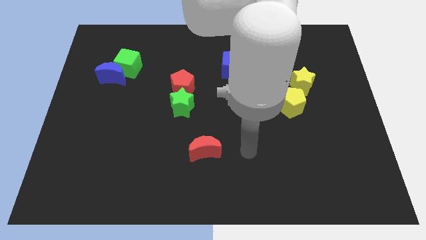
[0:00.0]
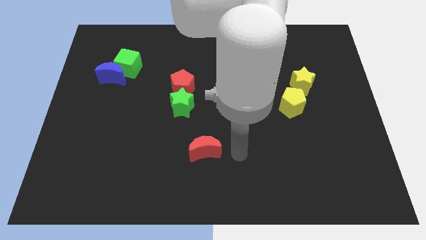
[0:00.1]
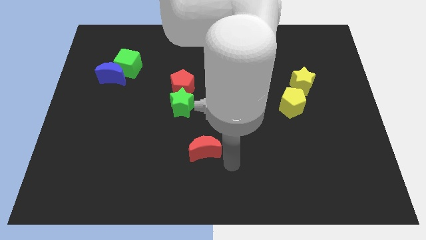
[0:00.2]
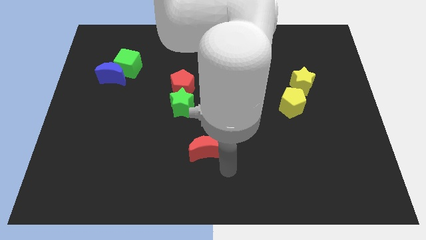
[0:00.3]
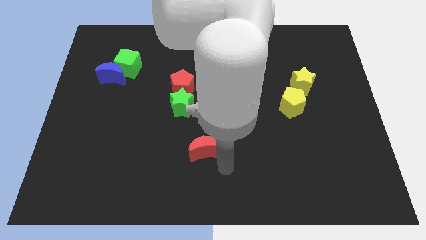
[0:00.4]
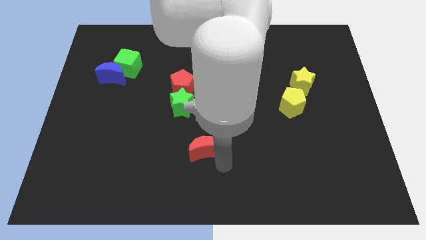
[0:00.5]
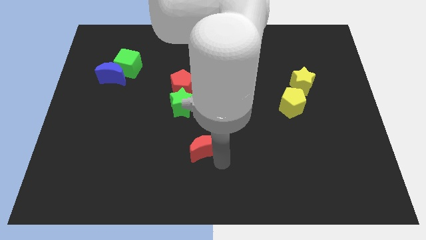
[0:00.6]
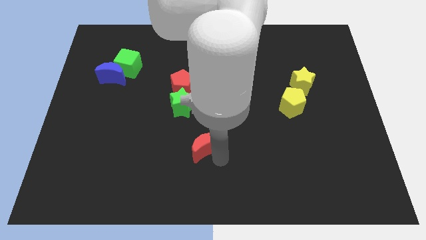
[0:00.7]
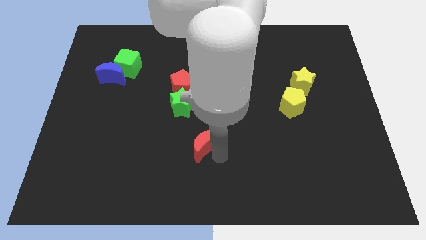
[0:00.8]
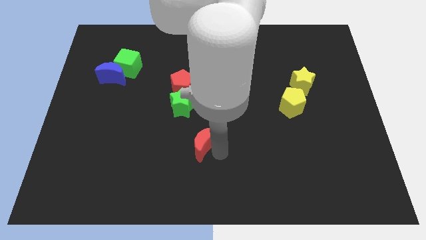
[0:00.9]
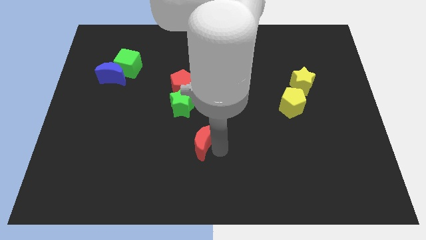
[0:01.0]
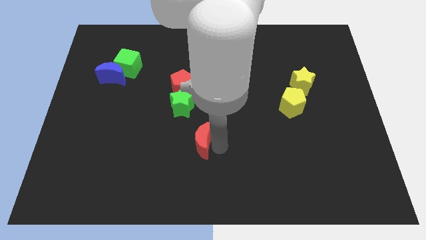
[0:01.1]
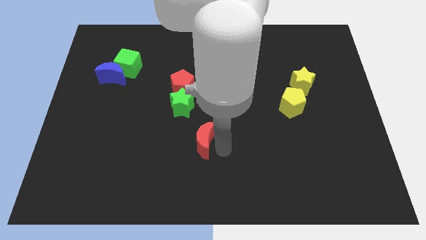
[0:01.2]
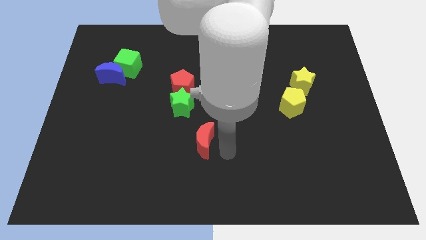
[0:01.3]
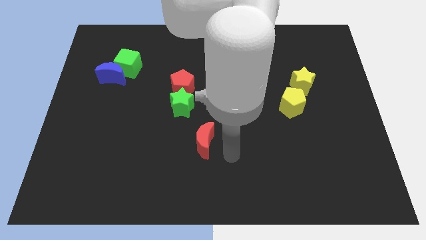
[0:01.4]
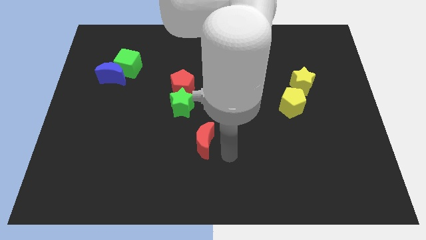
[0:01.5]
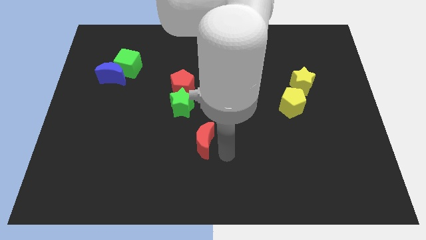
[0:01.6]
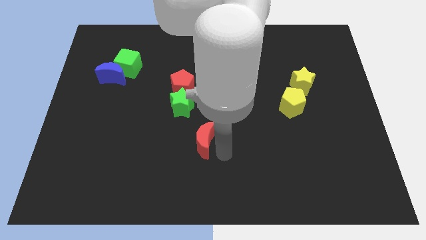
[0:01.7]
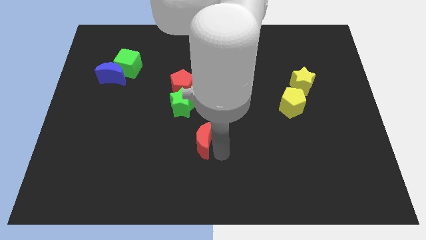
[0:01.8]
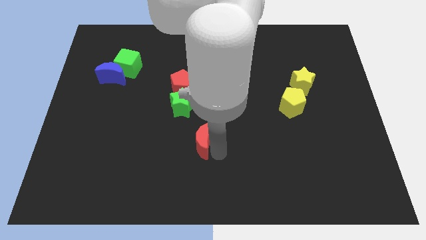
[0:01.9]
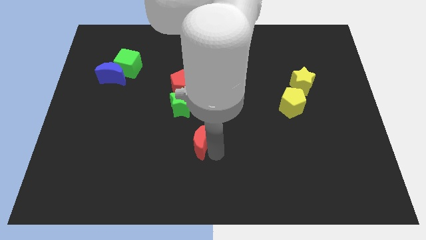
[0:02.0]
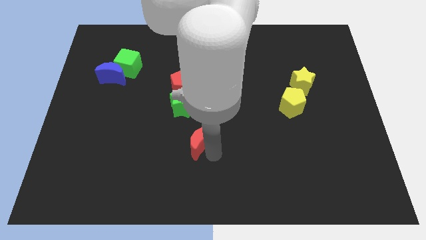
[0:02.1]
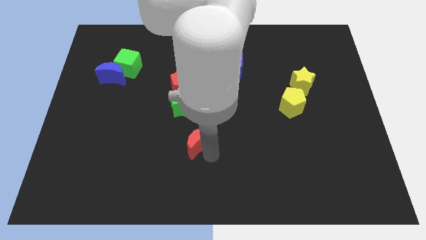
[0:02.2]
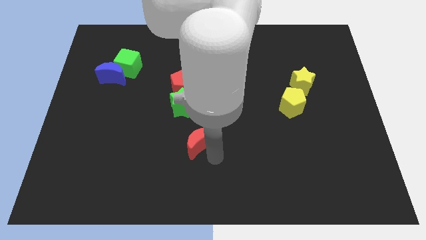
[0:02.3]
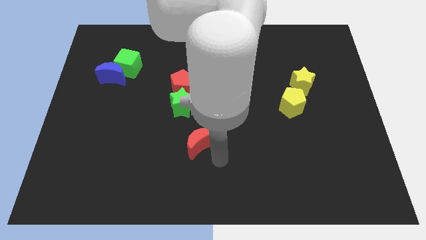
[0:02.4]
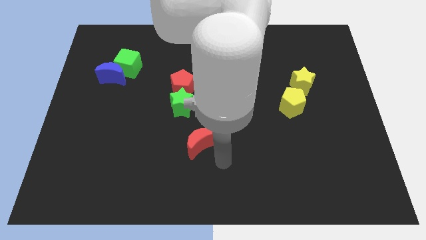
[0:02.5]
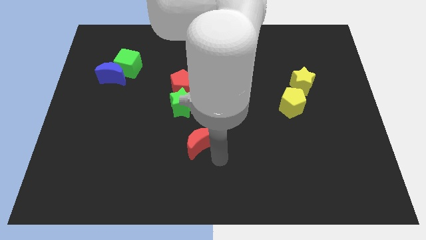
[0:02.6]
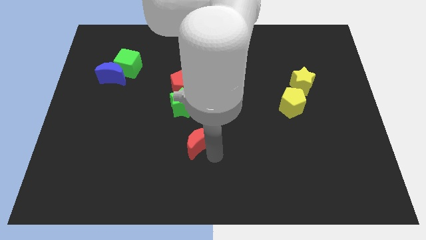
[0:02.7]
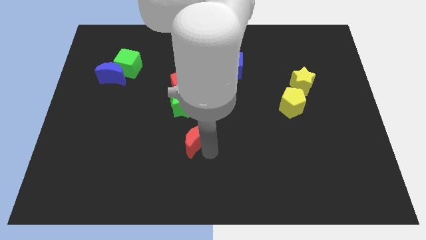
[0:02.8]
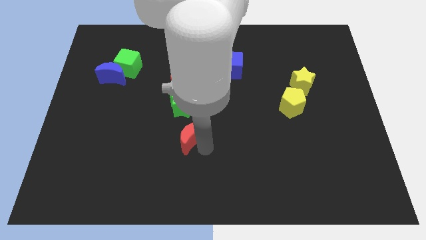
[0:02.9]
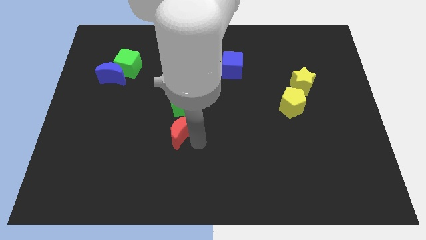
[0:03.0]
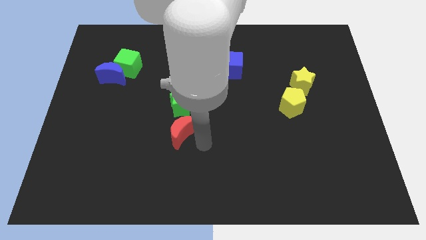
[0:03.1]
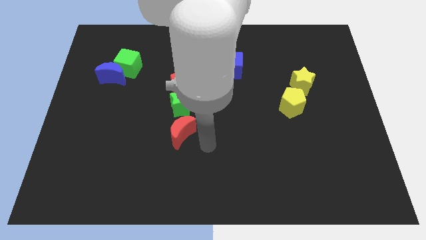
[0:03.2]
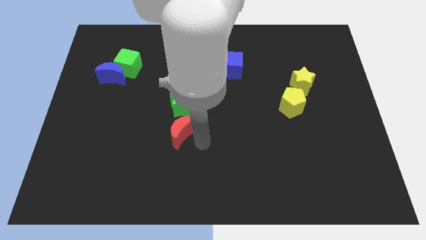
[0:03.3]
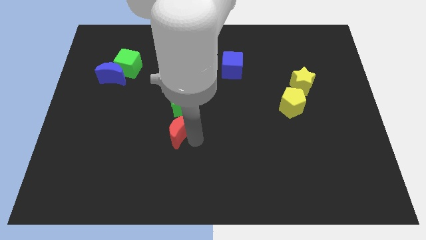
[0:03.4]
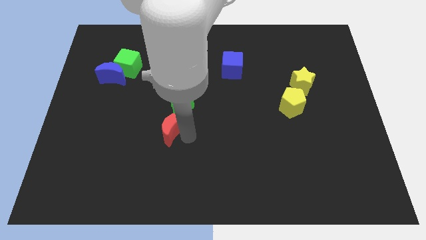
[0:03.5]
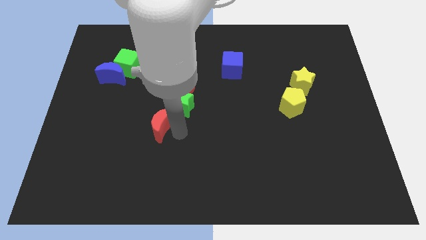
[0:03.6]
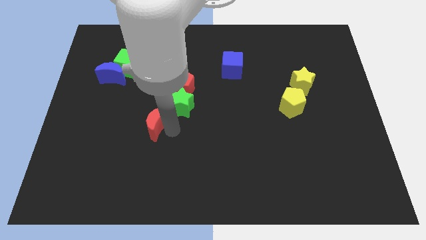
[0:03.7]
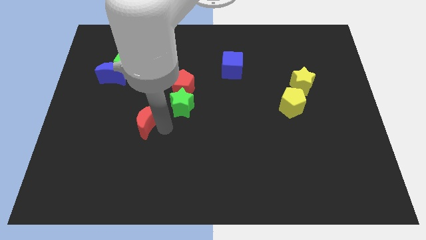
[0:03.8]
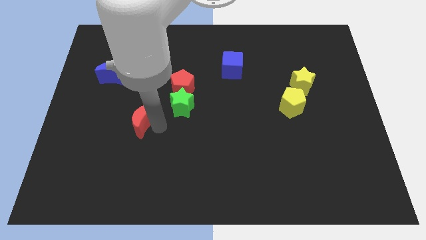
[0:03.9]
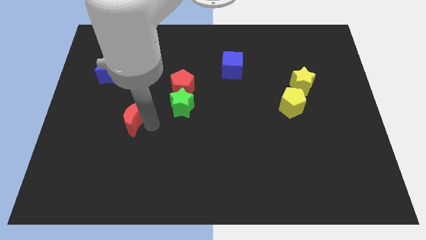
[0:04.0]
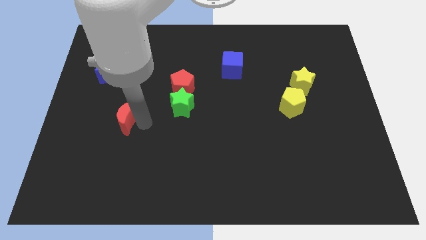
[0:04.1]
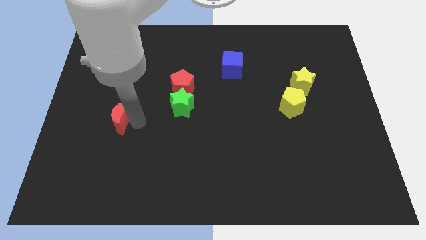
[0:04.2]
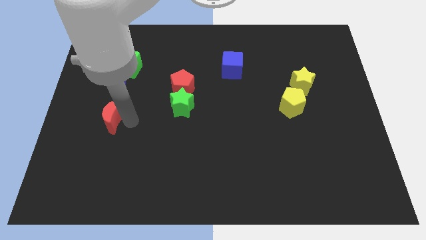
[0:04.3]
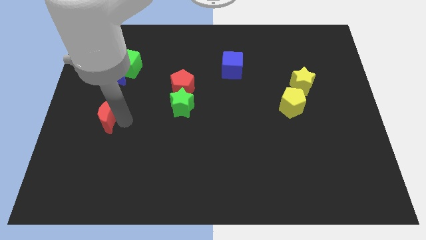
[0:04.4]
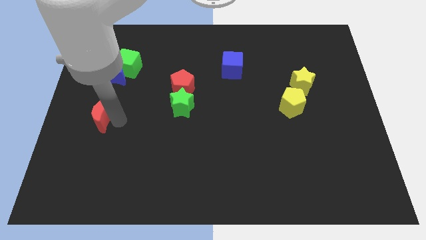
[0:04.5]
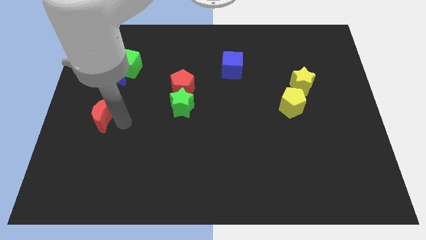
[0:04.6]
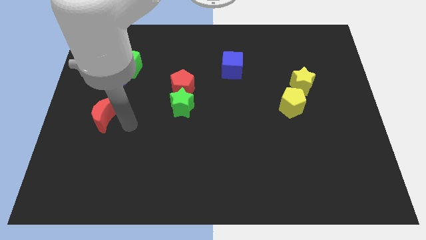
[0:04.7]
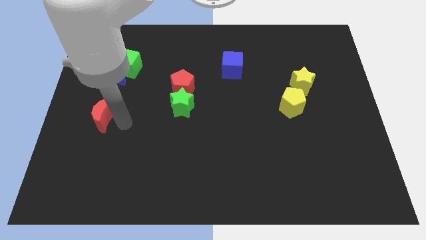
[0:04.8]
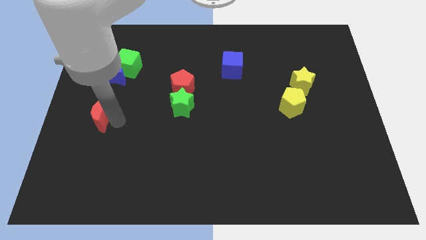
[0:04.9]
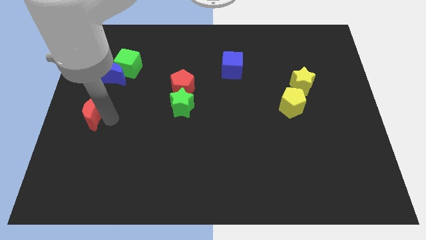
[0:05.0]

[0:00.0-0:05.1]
move the red moon to the left side

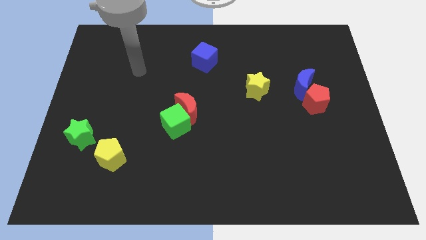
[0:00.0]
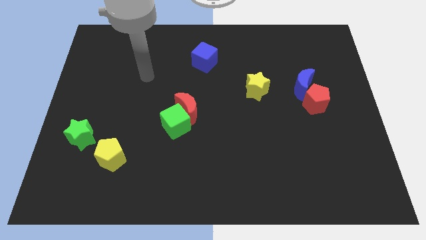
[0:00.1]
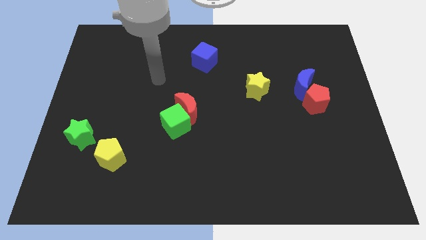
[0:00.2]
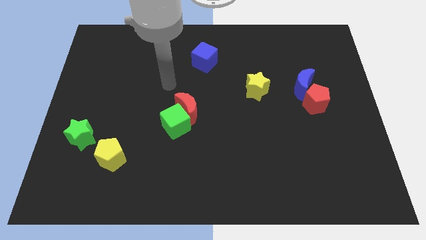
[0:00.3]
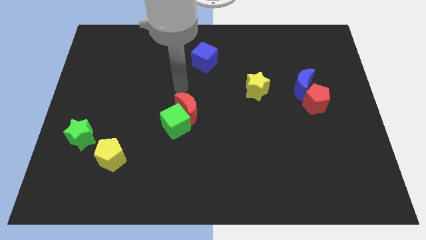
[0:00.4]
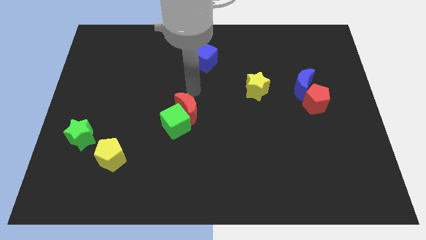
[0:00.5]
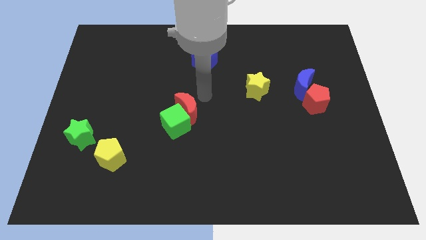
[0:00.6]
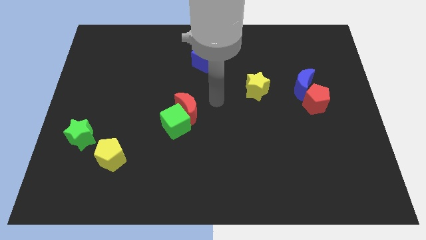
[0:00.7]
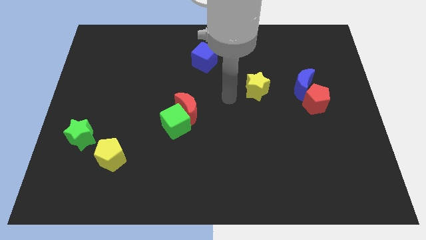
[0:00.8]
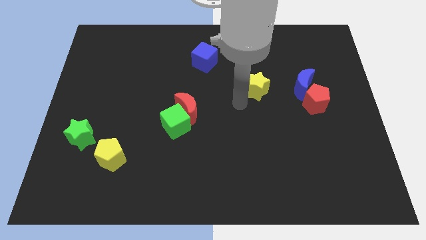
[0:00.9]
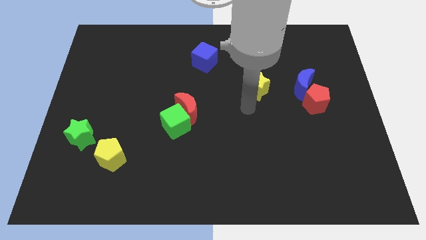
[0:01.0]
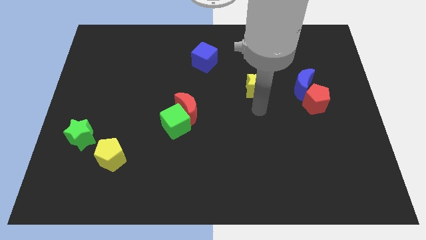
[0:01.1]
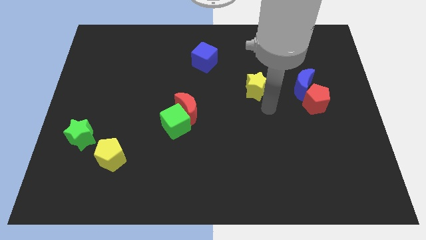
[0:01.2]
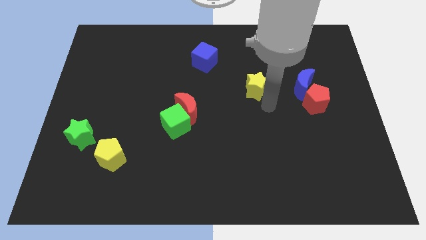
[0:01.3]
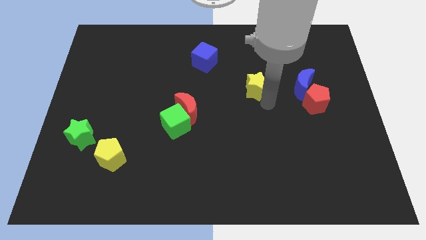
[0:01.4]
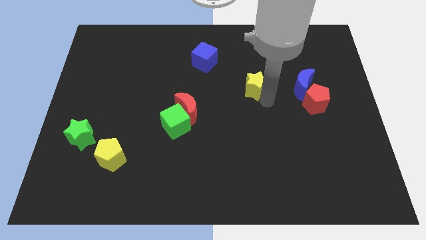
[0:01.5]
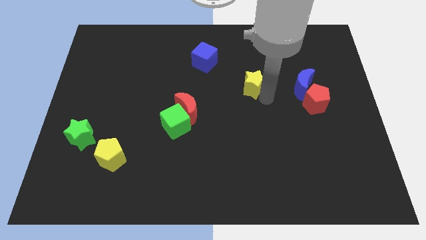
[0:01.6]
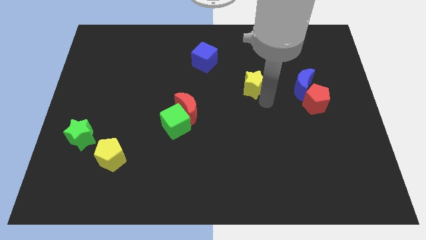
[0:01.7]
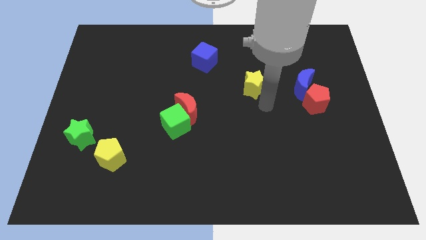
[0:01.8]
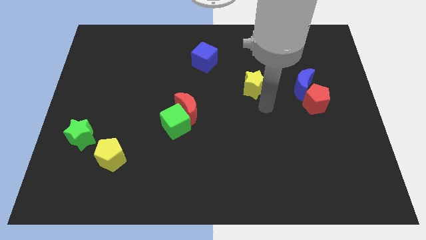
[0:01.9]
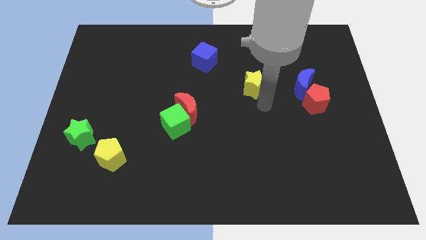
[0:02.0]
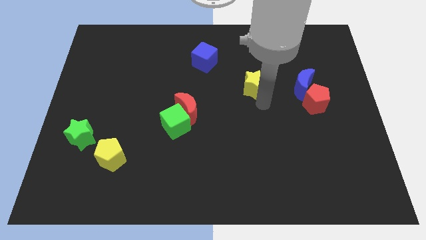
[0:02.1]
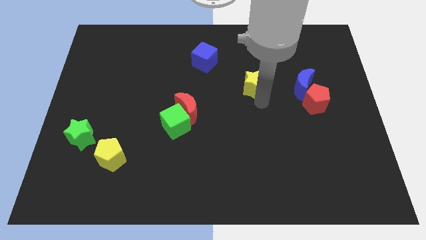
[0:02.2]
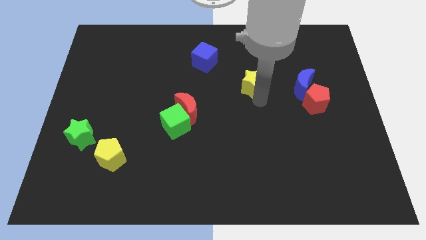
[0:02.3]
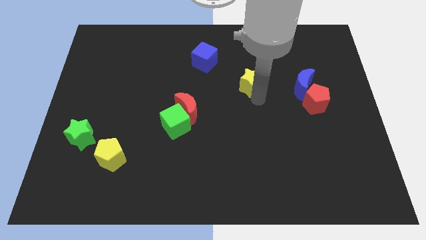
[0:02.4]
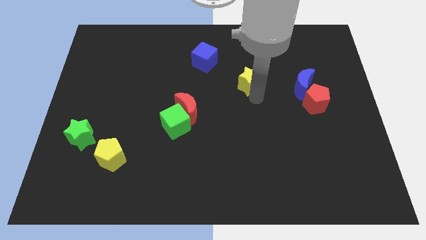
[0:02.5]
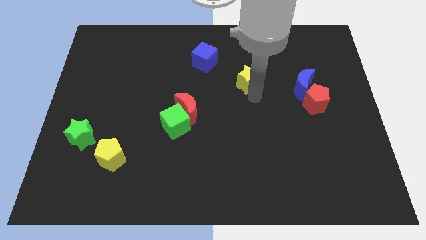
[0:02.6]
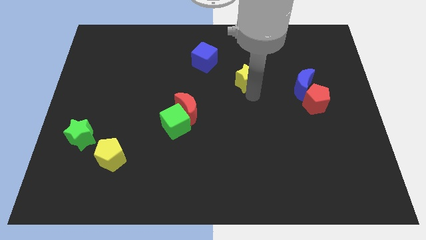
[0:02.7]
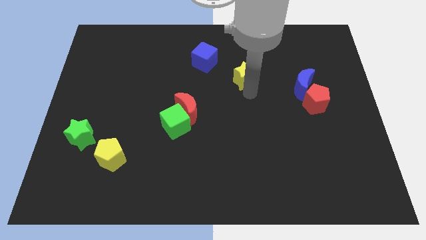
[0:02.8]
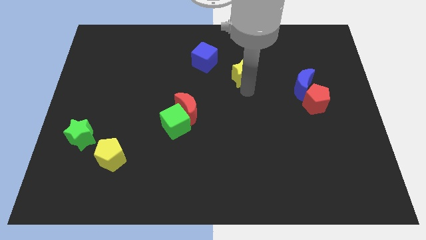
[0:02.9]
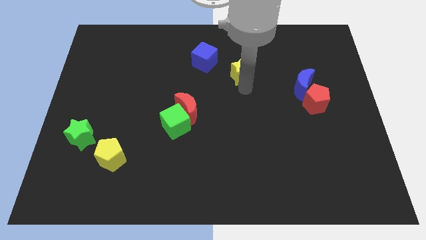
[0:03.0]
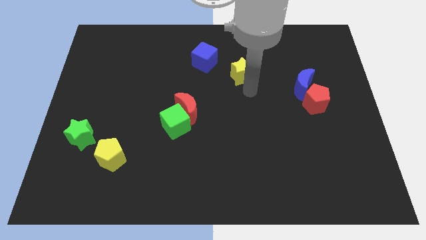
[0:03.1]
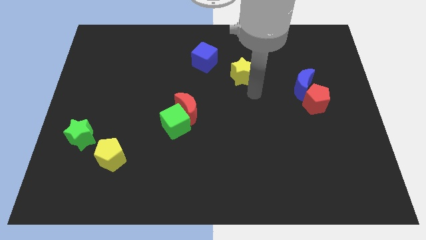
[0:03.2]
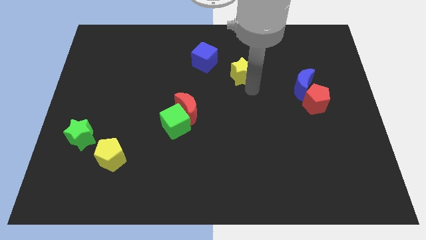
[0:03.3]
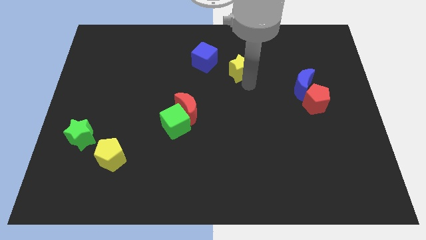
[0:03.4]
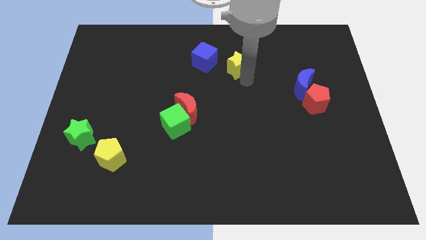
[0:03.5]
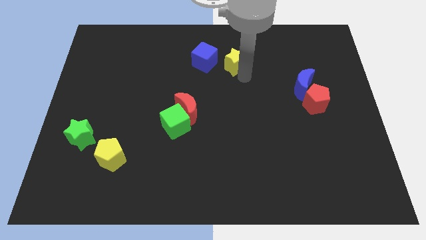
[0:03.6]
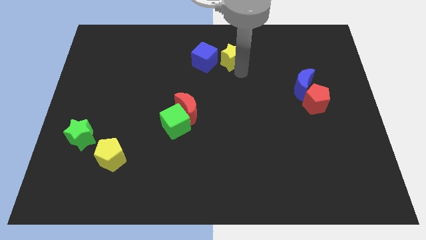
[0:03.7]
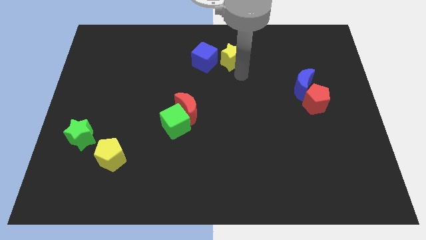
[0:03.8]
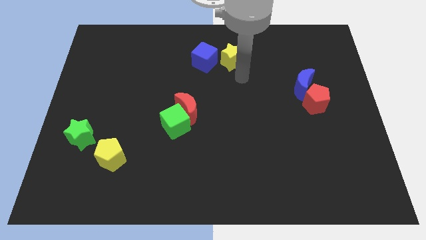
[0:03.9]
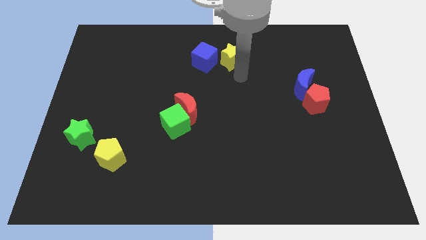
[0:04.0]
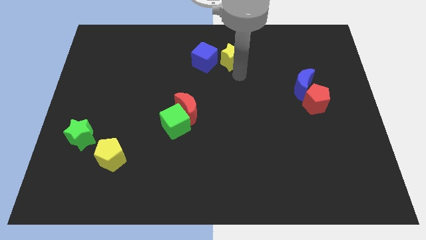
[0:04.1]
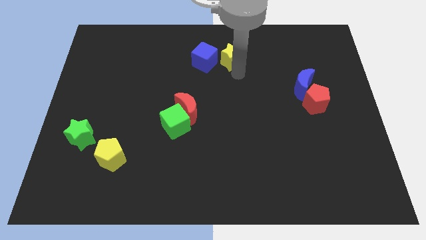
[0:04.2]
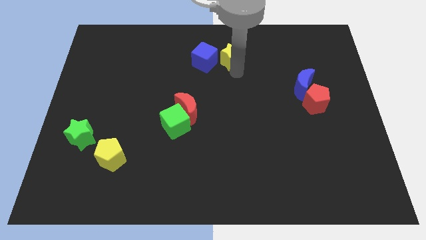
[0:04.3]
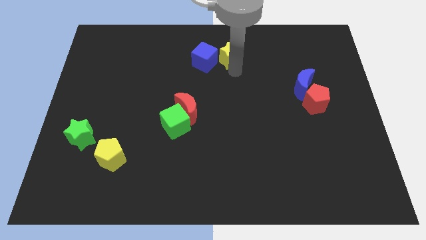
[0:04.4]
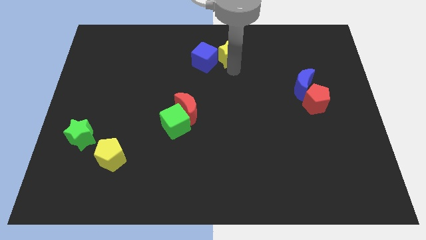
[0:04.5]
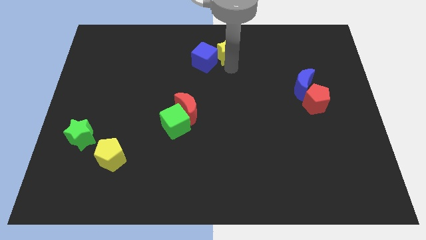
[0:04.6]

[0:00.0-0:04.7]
push the yellow star to the top side
